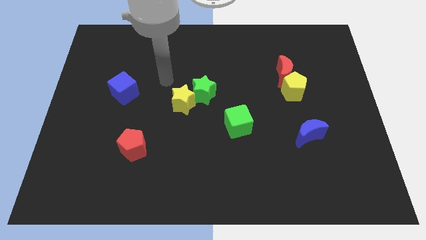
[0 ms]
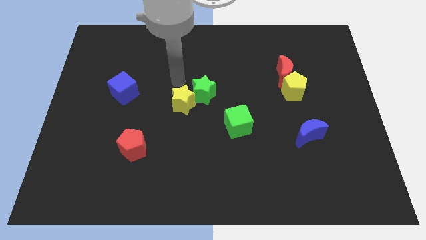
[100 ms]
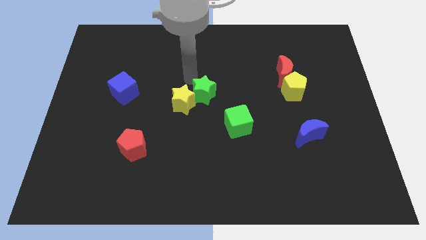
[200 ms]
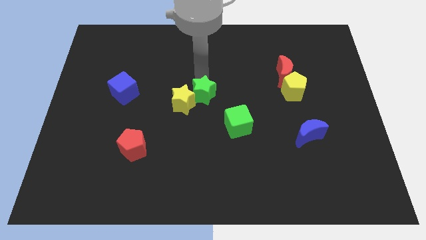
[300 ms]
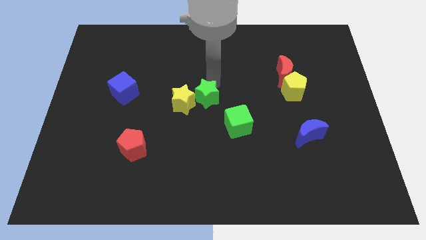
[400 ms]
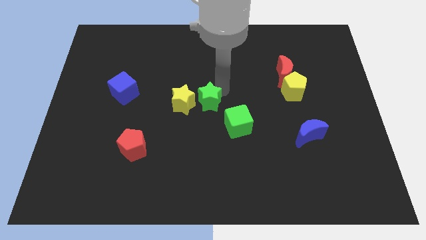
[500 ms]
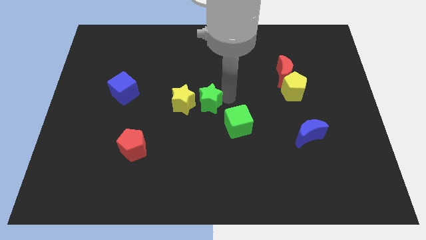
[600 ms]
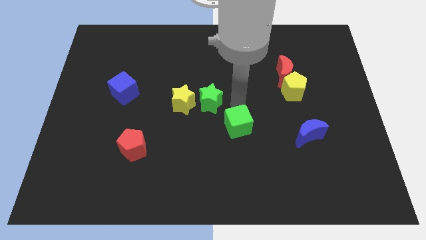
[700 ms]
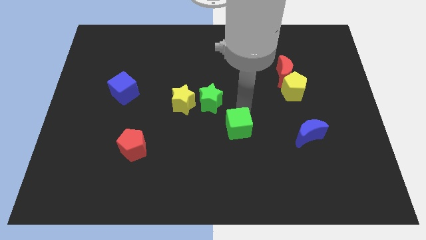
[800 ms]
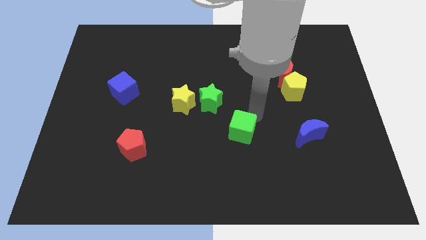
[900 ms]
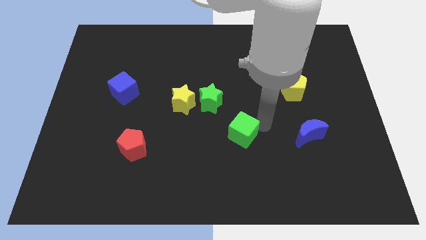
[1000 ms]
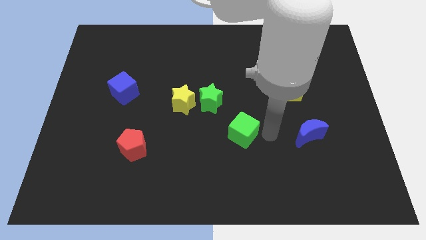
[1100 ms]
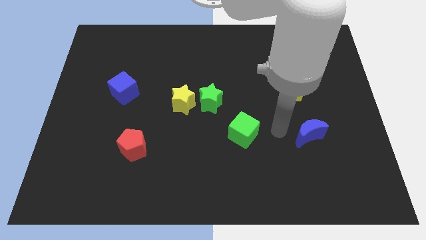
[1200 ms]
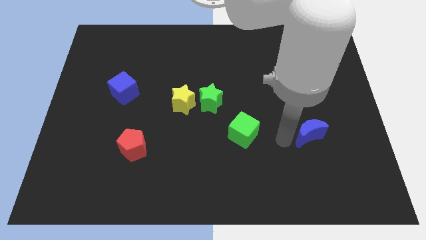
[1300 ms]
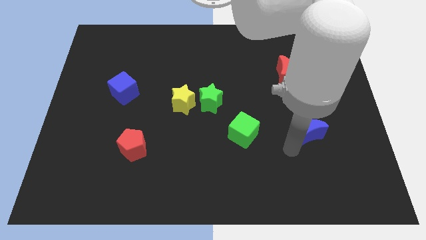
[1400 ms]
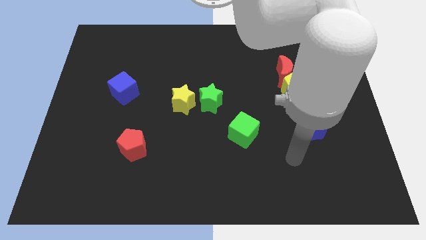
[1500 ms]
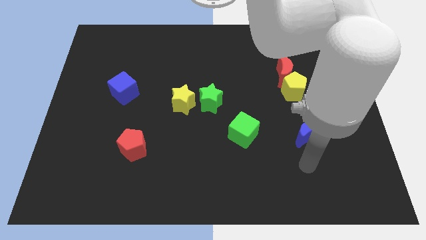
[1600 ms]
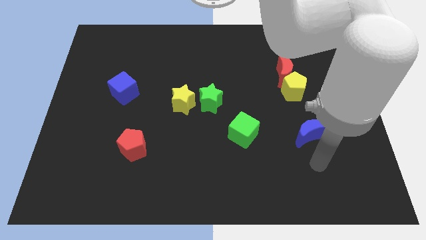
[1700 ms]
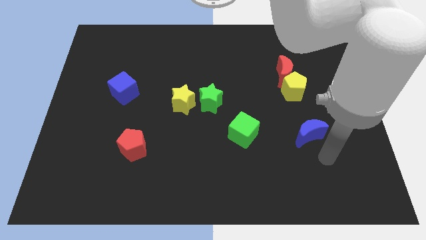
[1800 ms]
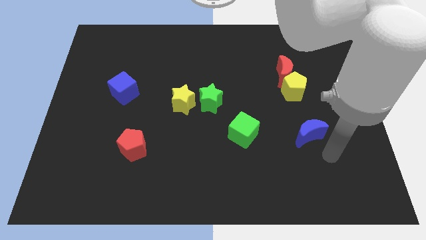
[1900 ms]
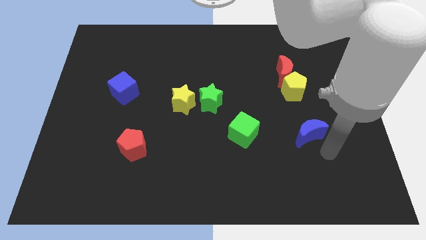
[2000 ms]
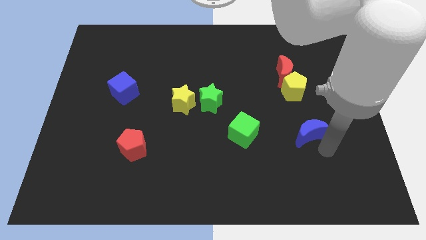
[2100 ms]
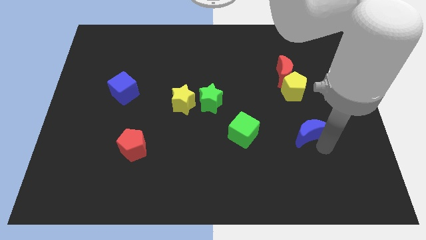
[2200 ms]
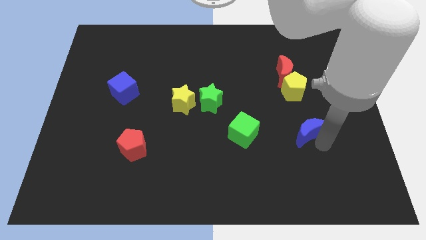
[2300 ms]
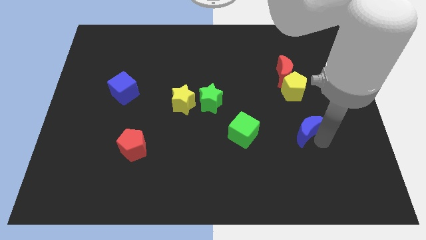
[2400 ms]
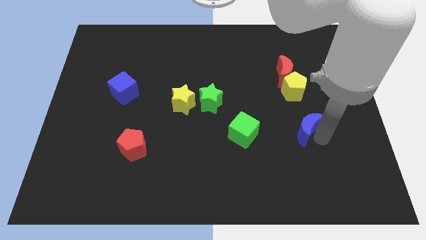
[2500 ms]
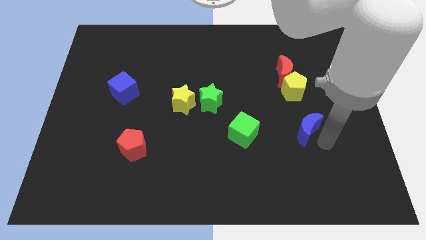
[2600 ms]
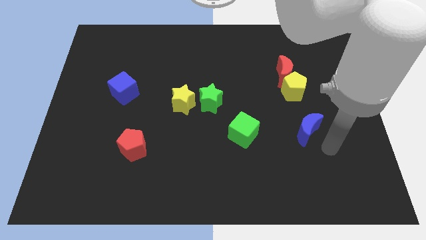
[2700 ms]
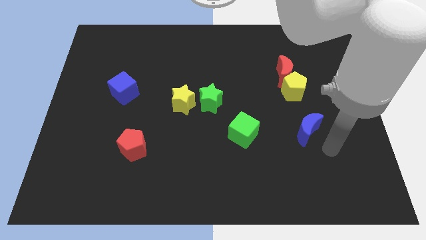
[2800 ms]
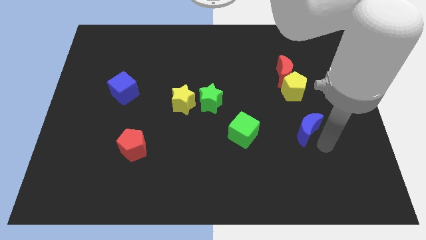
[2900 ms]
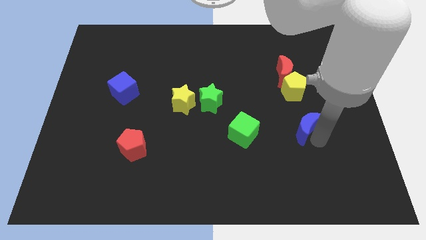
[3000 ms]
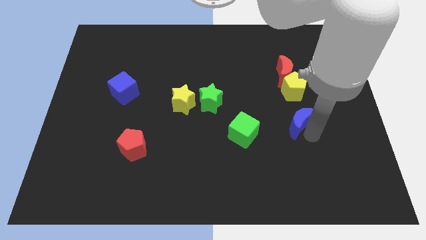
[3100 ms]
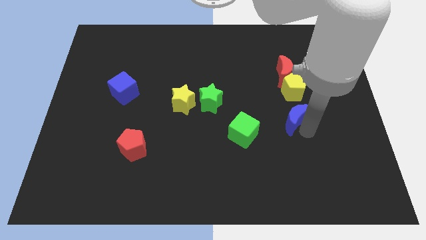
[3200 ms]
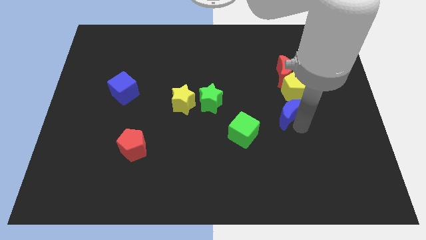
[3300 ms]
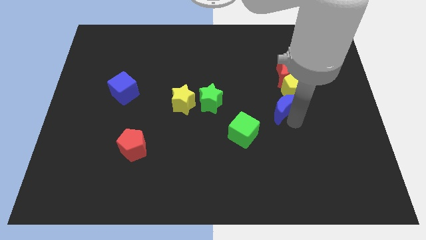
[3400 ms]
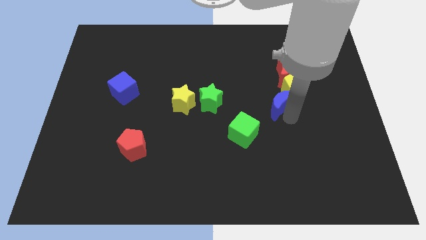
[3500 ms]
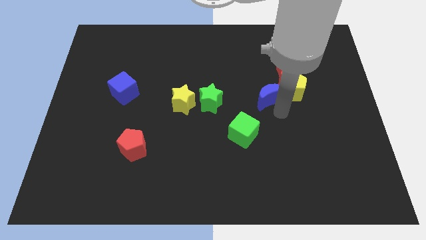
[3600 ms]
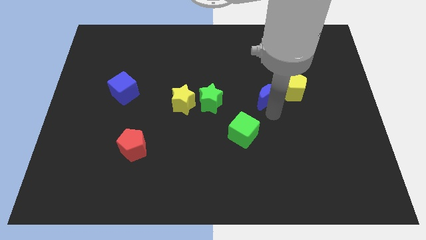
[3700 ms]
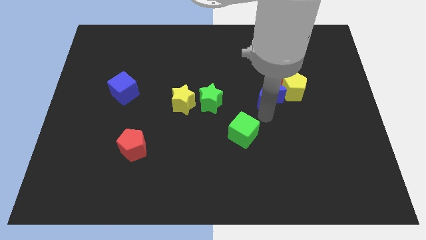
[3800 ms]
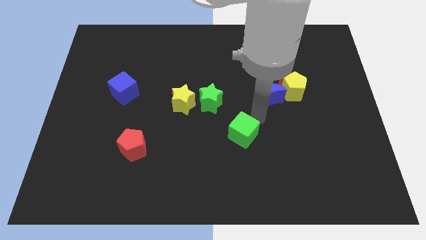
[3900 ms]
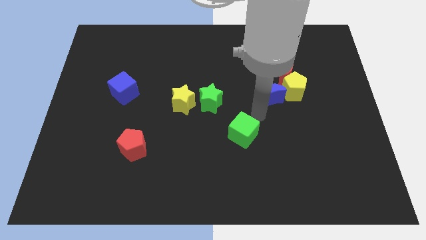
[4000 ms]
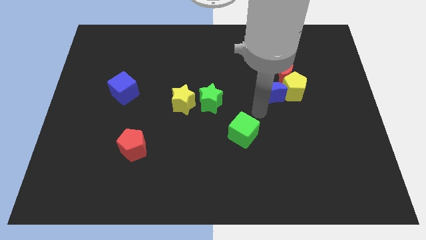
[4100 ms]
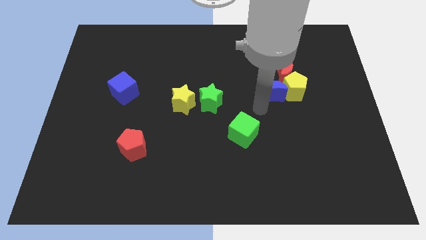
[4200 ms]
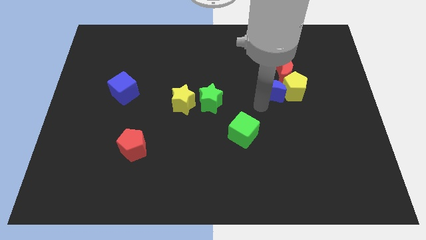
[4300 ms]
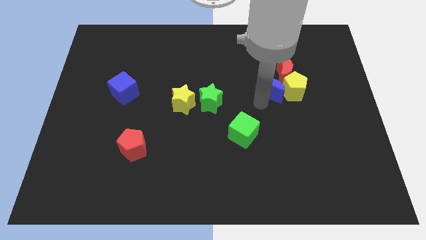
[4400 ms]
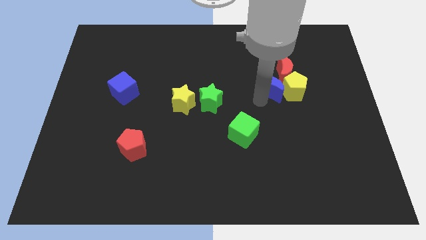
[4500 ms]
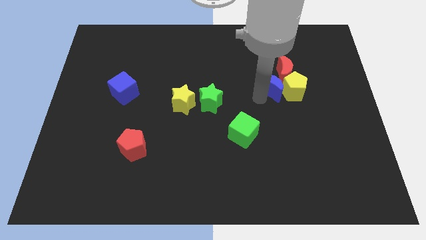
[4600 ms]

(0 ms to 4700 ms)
push the blue moon next to the red moon

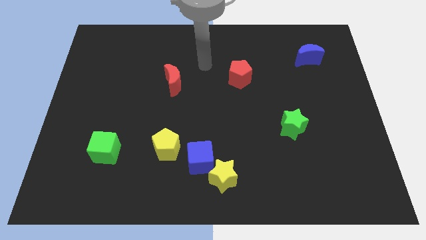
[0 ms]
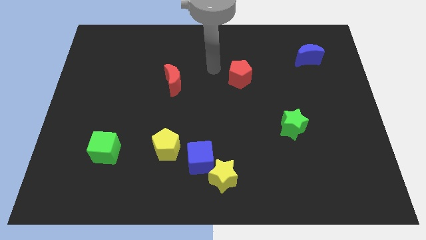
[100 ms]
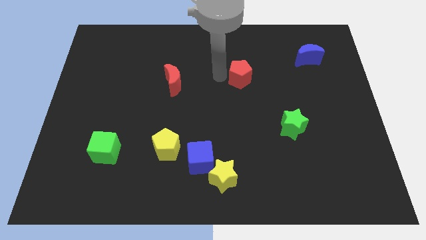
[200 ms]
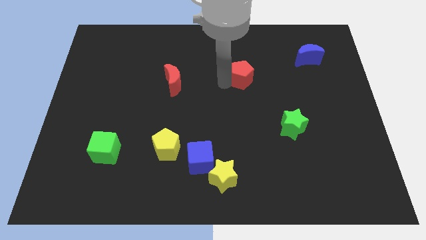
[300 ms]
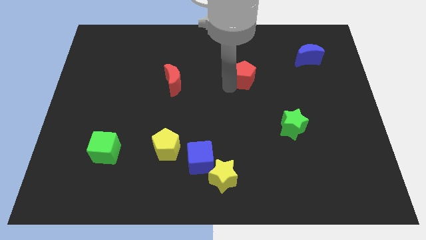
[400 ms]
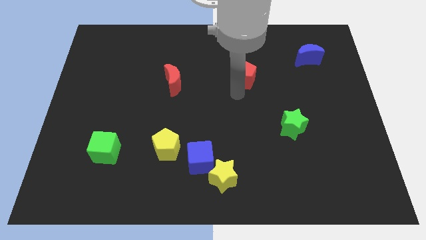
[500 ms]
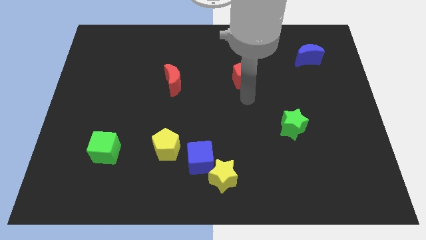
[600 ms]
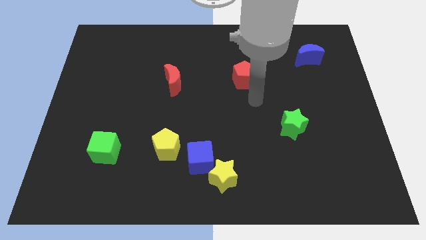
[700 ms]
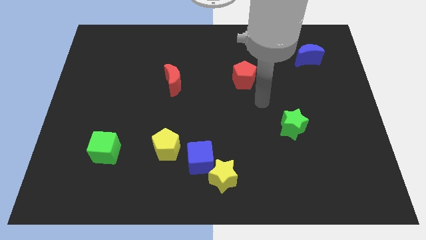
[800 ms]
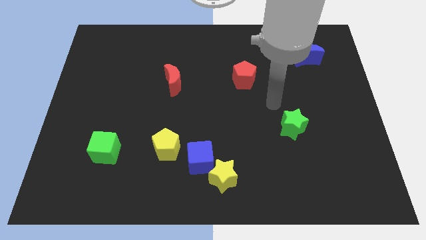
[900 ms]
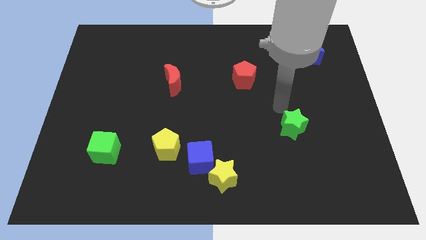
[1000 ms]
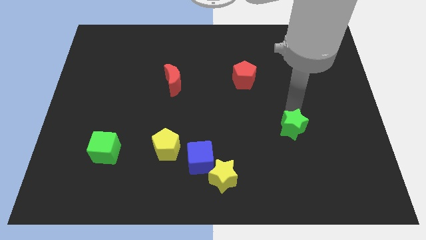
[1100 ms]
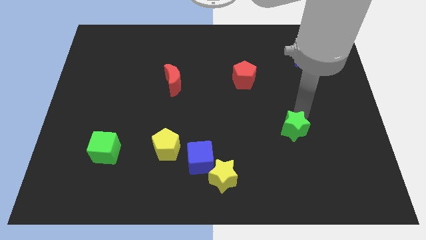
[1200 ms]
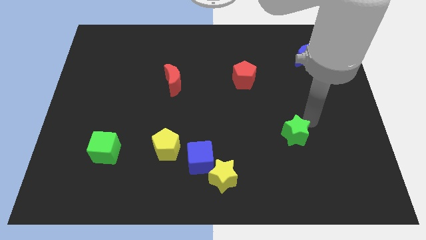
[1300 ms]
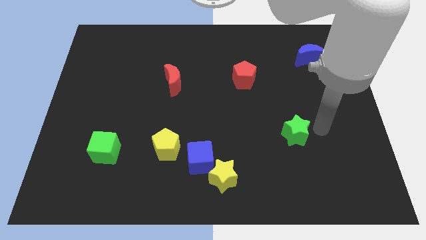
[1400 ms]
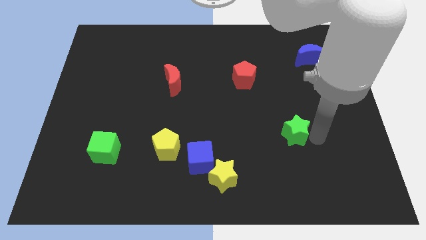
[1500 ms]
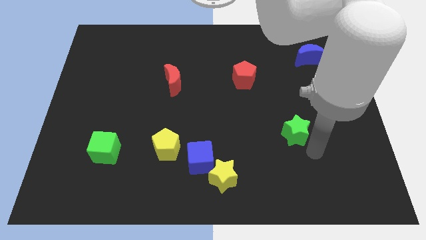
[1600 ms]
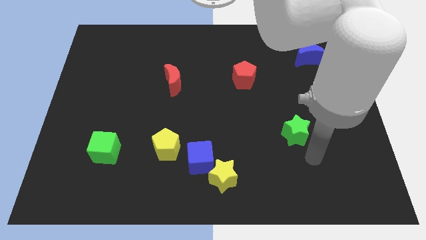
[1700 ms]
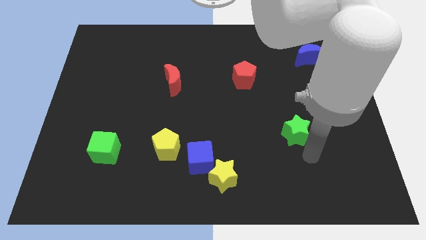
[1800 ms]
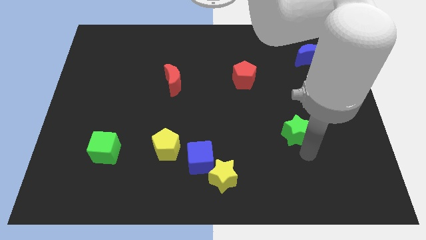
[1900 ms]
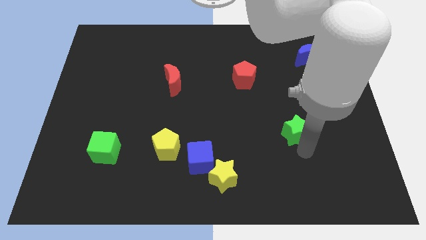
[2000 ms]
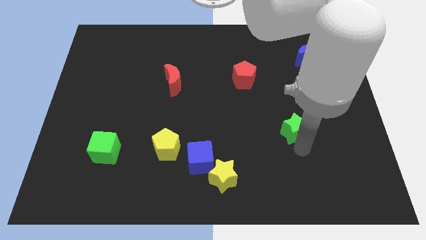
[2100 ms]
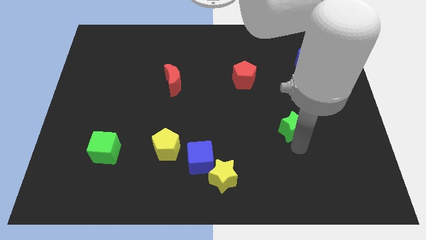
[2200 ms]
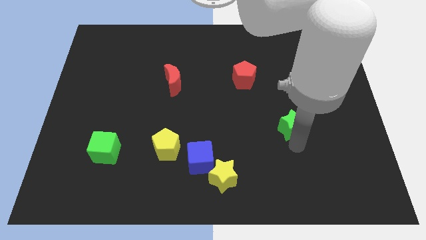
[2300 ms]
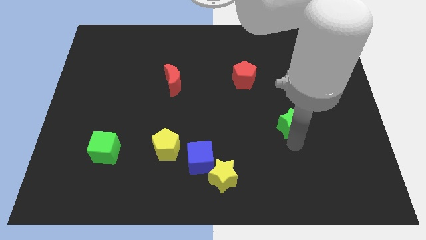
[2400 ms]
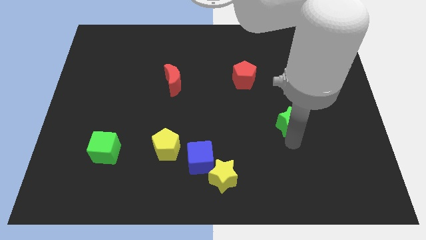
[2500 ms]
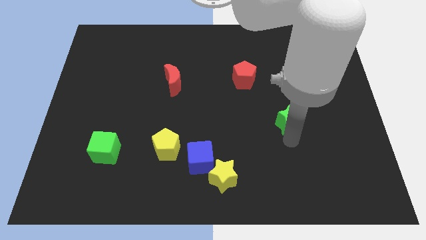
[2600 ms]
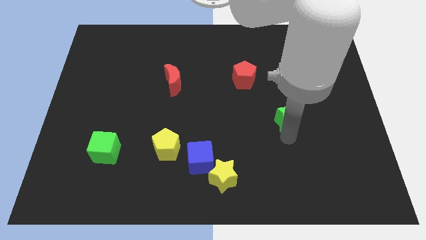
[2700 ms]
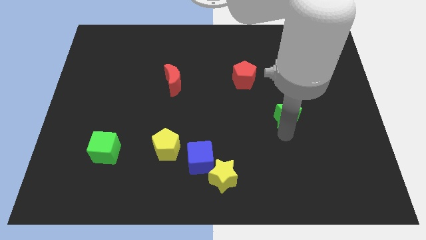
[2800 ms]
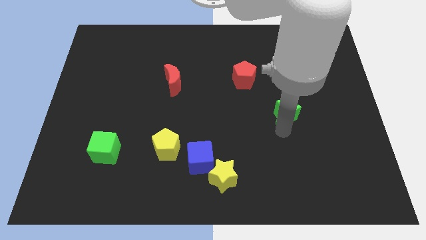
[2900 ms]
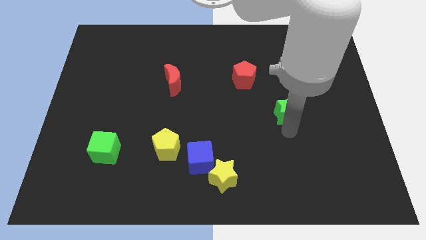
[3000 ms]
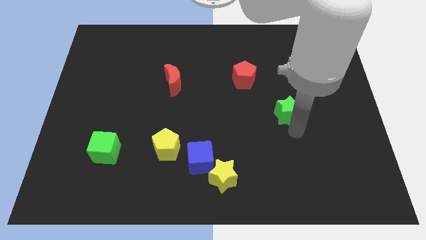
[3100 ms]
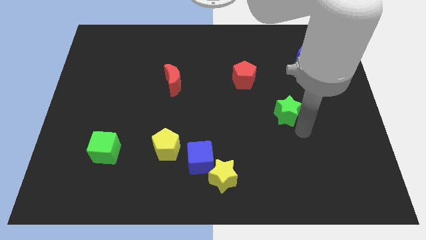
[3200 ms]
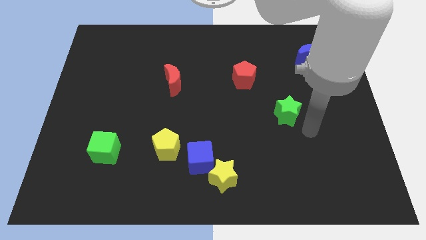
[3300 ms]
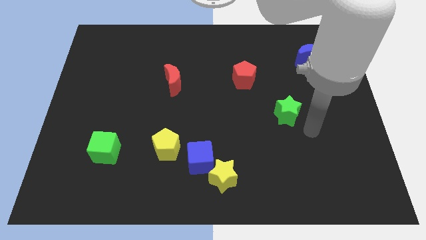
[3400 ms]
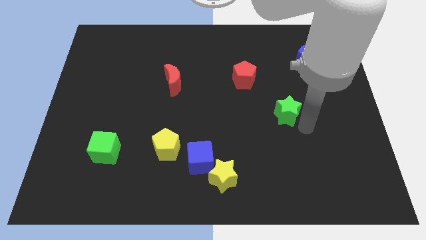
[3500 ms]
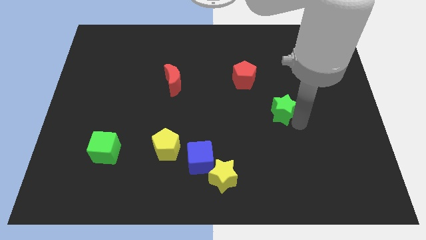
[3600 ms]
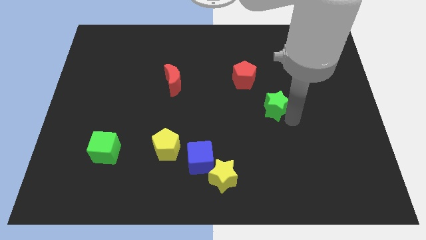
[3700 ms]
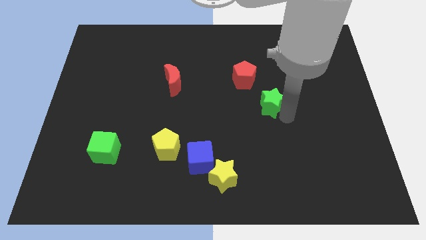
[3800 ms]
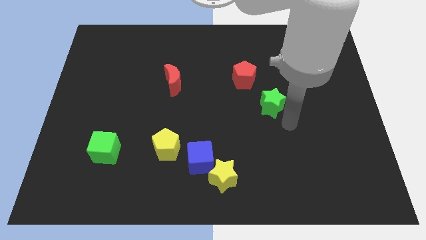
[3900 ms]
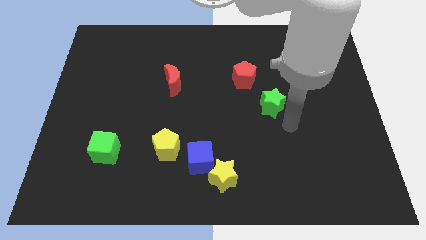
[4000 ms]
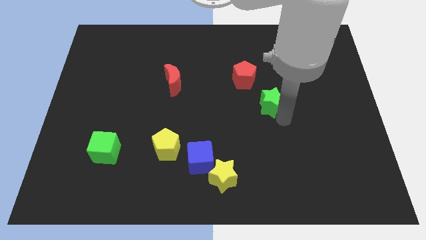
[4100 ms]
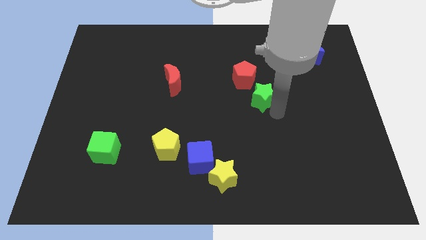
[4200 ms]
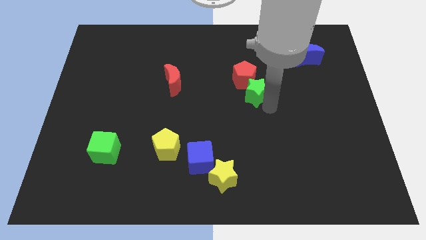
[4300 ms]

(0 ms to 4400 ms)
push the green star towards the red pentagon
